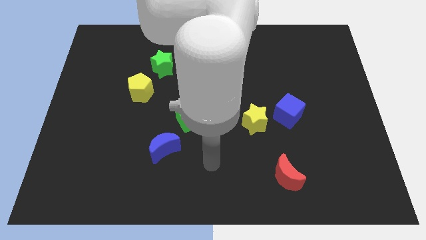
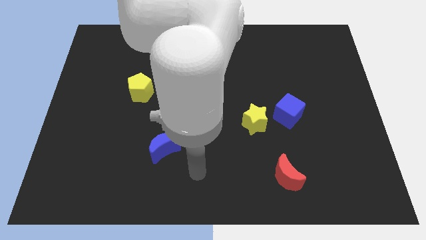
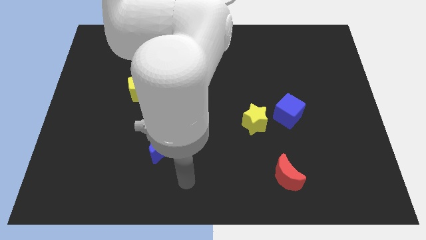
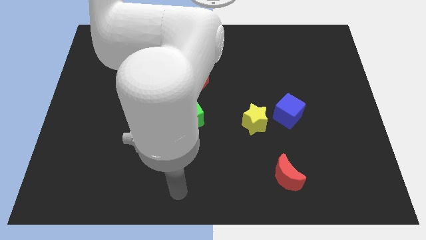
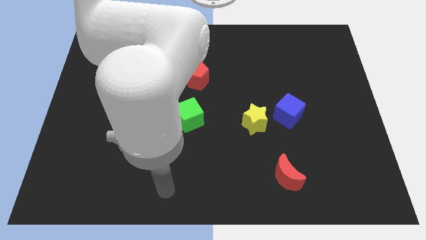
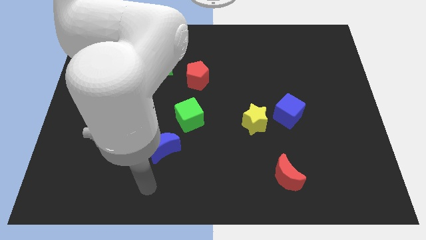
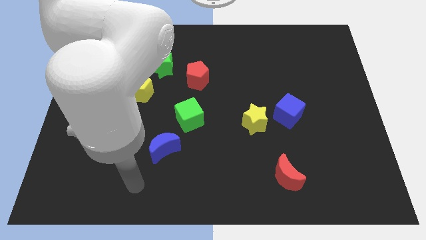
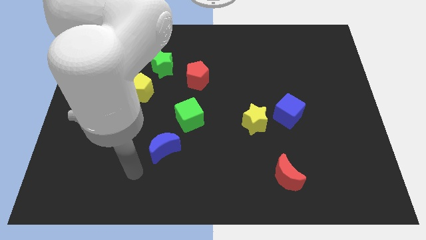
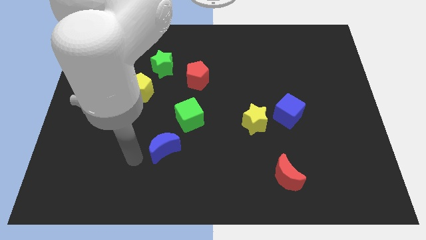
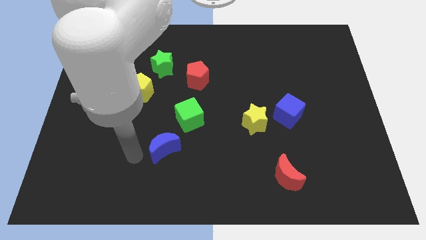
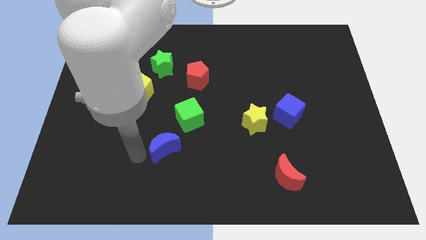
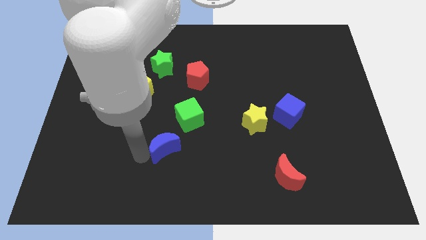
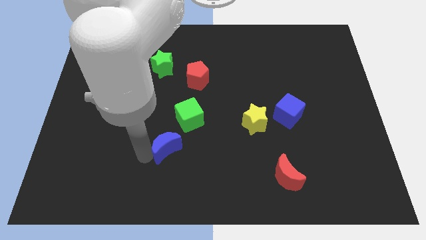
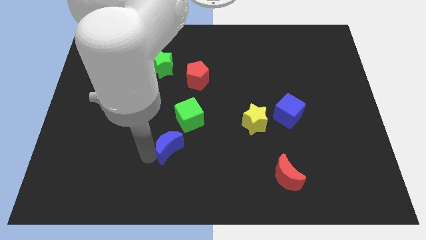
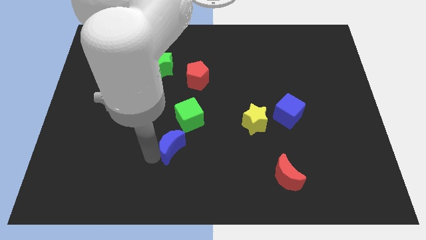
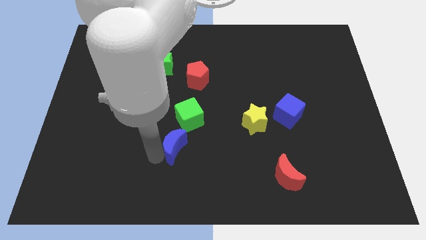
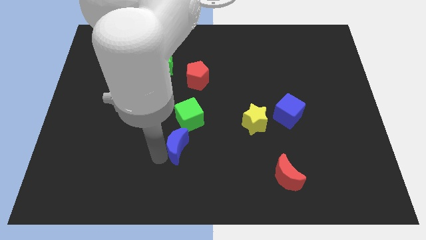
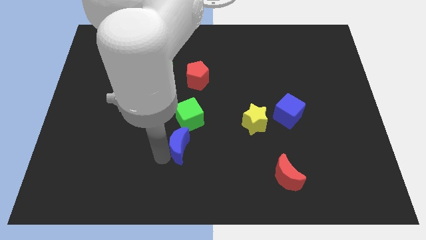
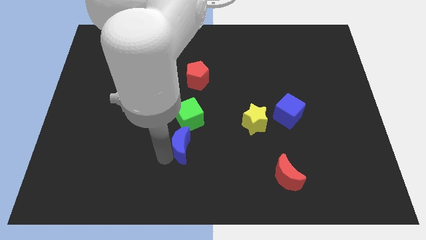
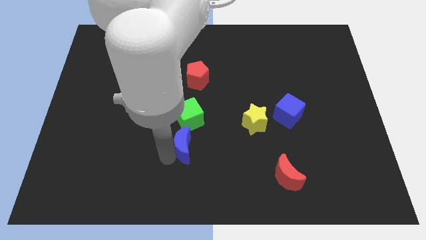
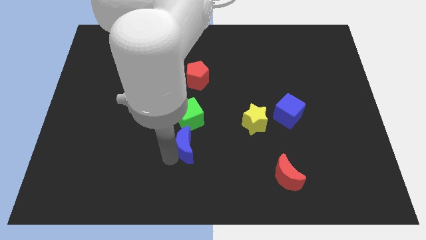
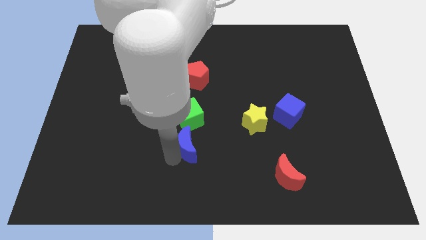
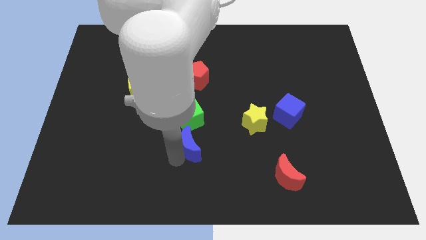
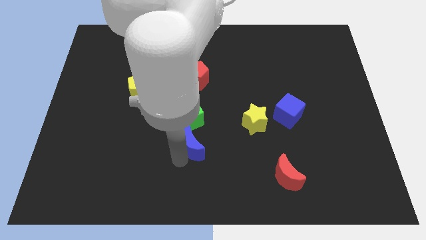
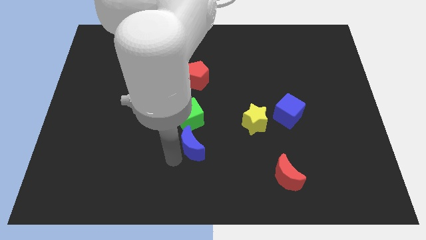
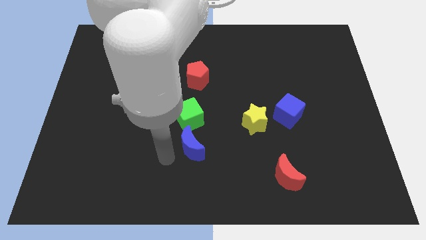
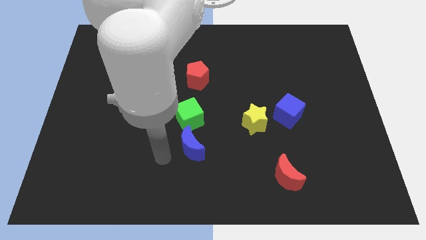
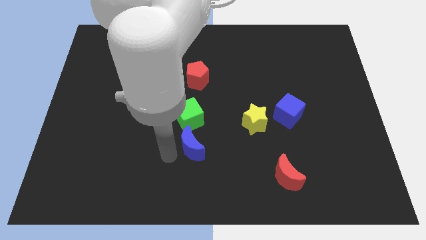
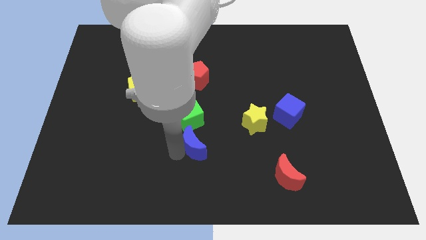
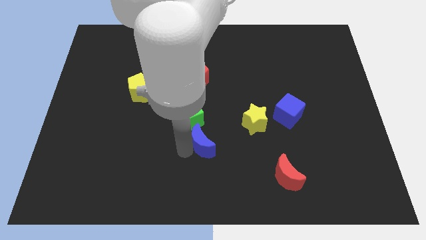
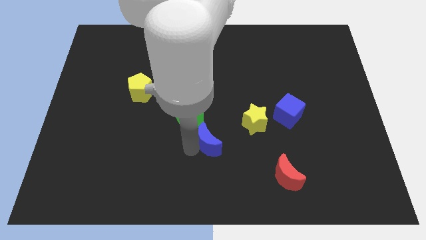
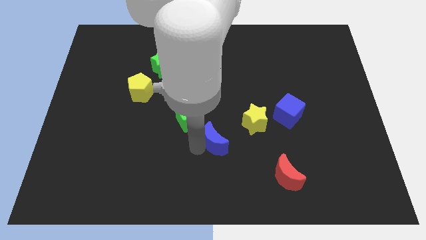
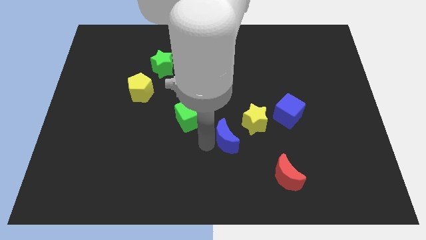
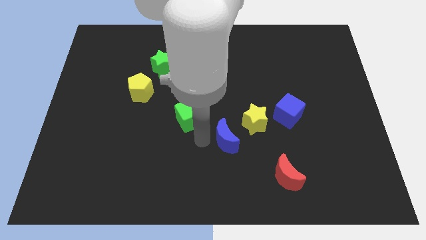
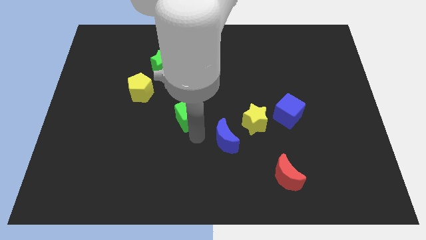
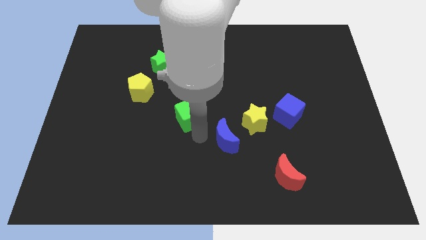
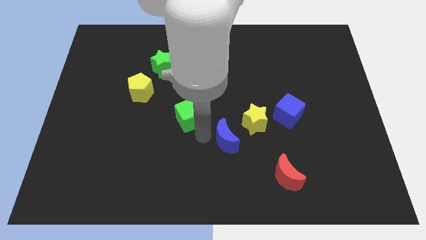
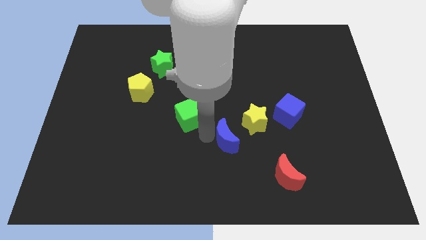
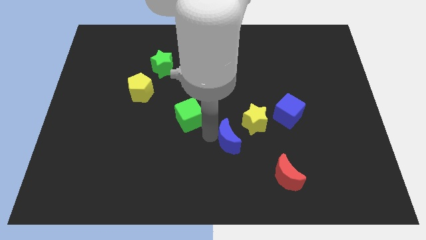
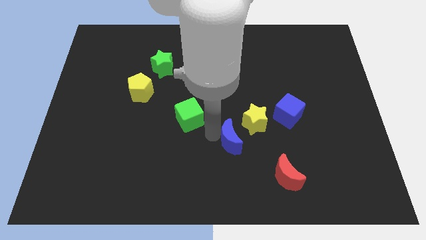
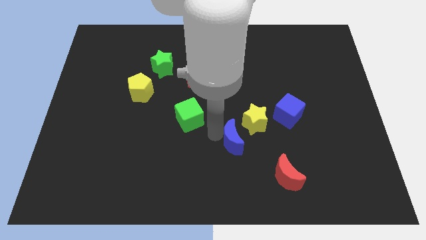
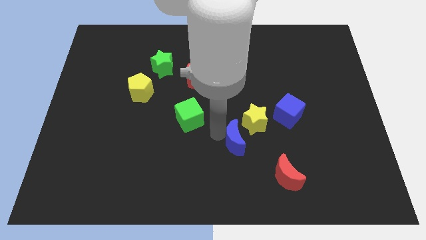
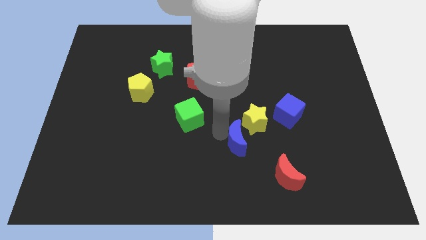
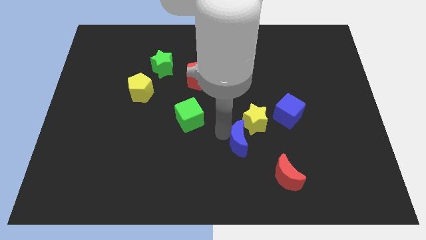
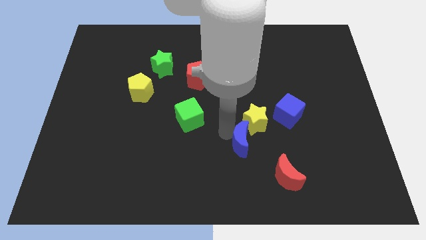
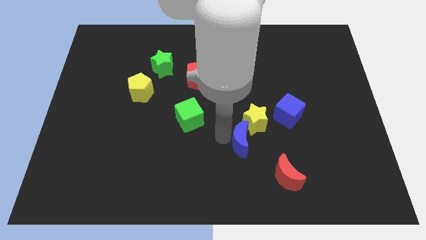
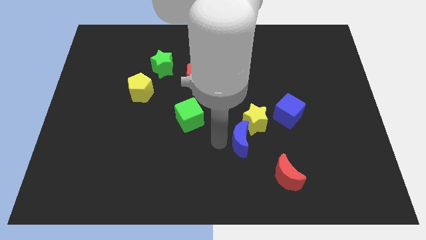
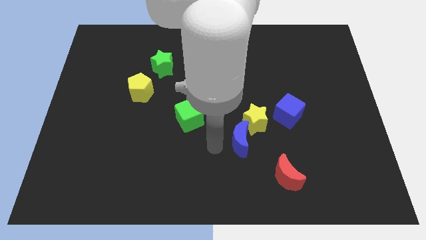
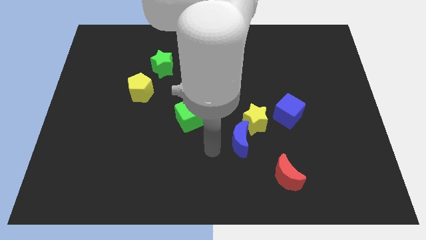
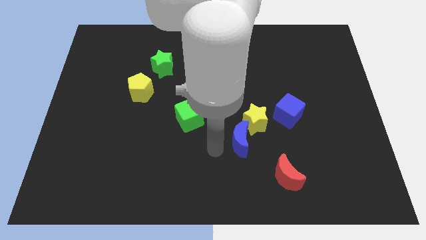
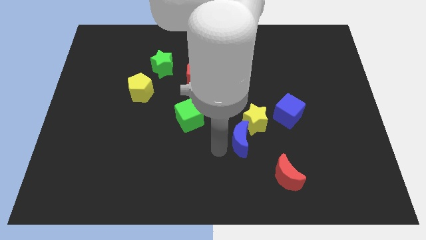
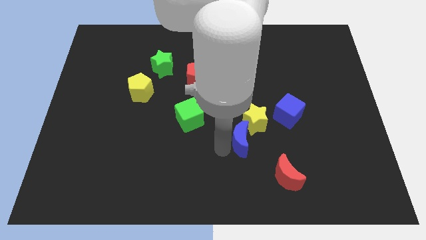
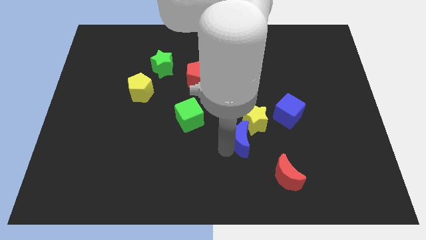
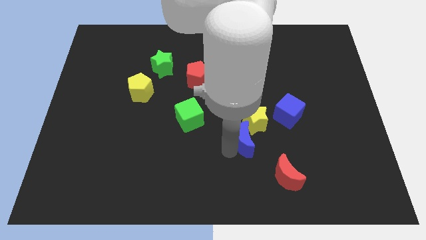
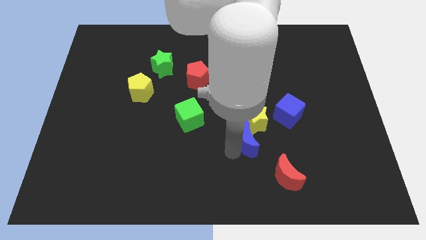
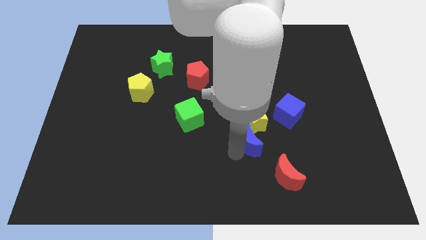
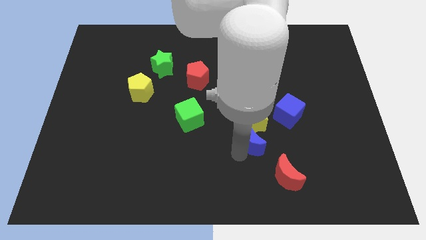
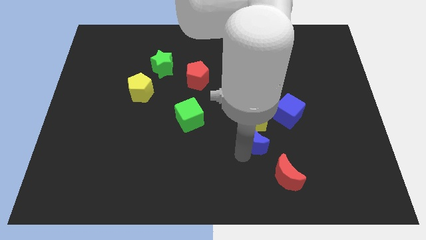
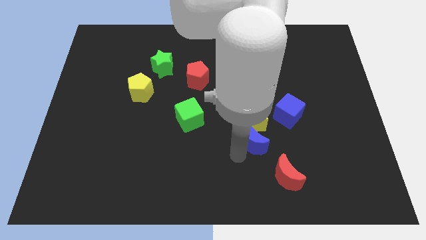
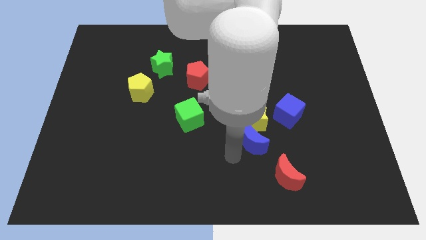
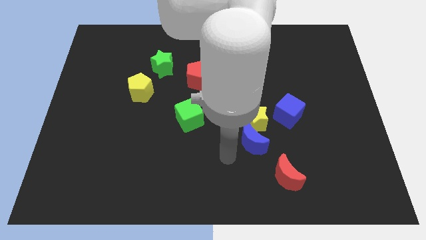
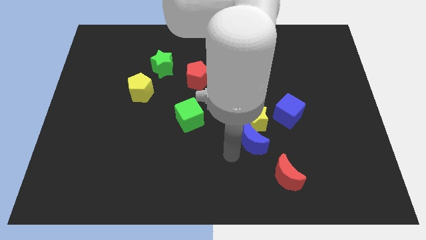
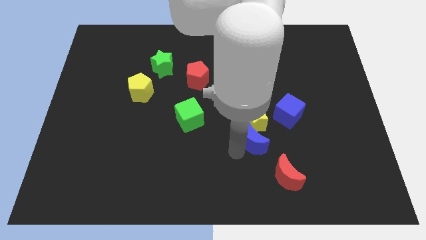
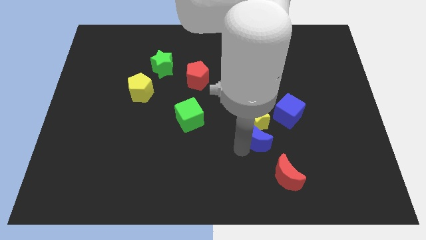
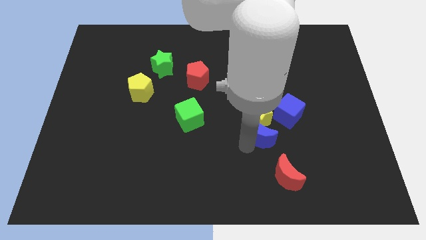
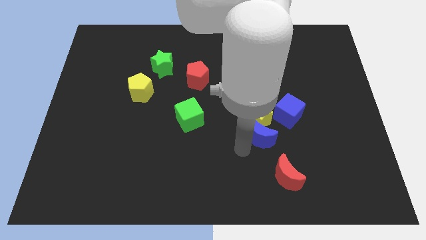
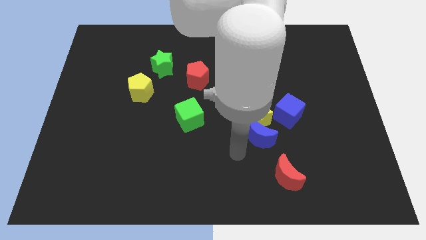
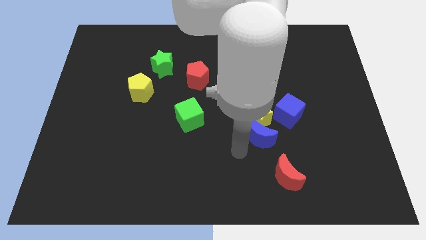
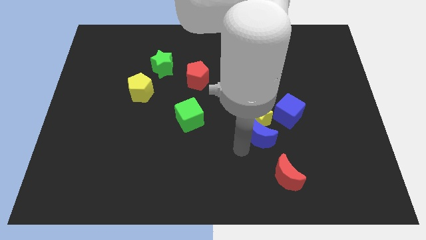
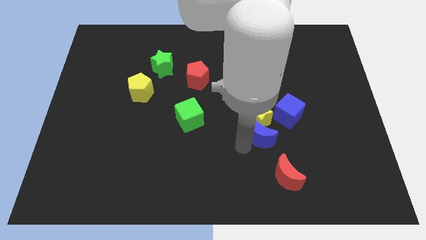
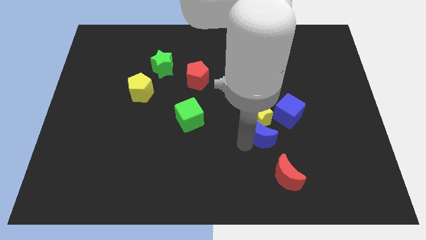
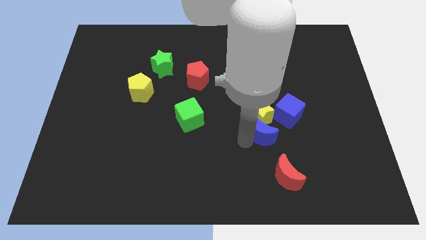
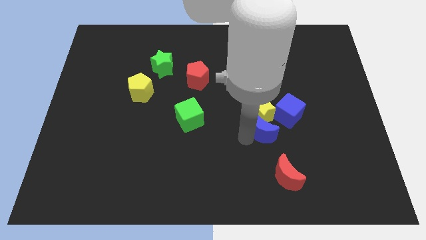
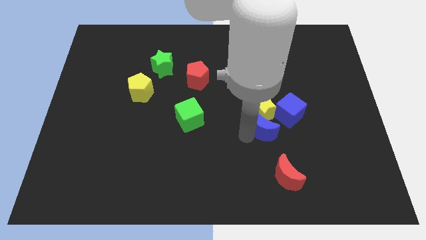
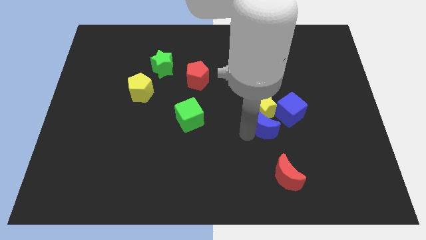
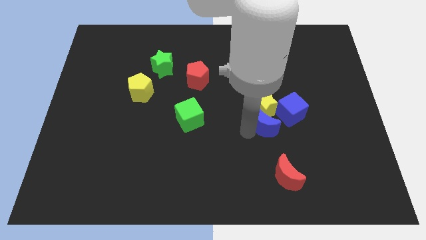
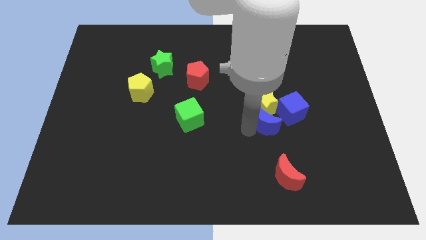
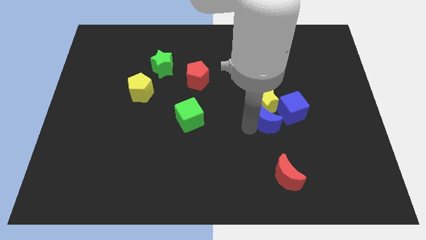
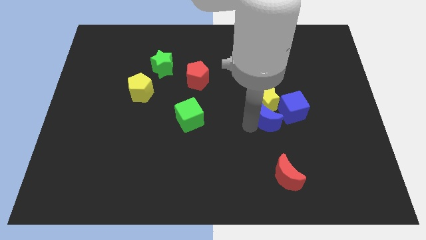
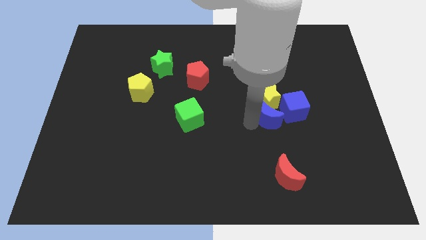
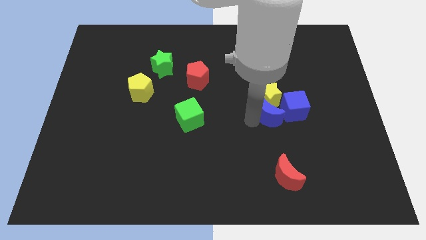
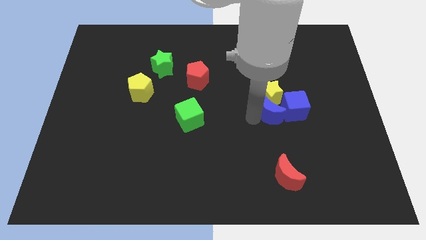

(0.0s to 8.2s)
slide the blue moon close to the blue cube
